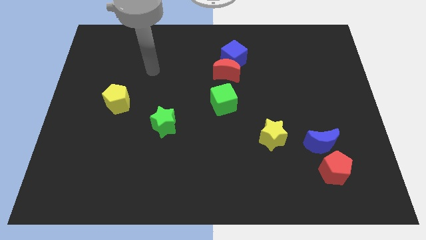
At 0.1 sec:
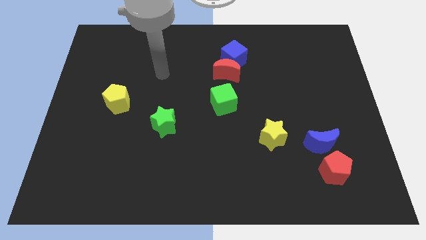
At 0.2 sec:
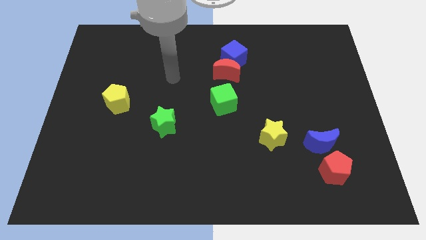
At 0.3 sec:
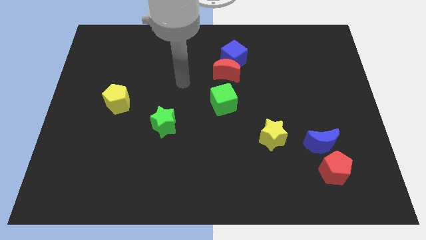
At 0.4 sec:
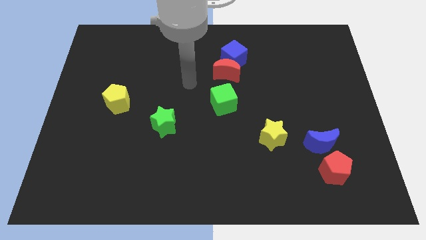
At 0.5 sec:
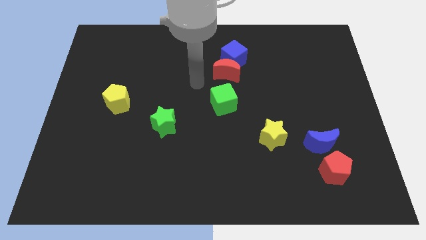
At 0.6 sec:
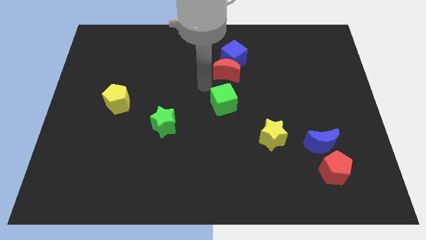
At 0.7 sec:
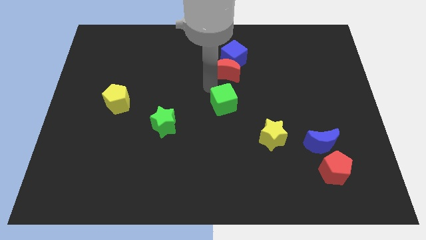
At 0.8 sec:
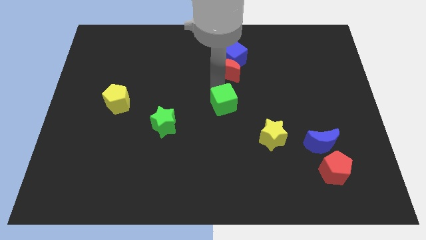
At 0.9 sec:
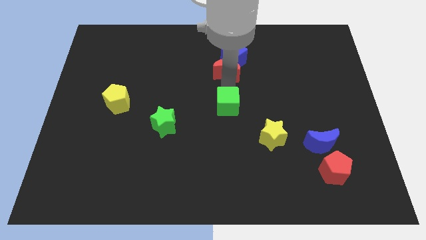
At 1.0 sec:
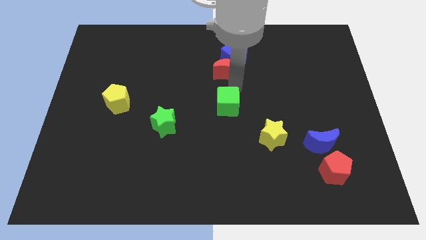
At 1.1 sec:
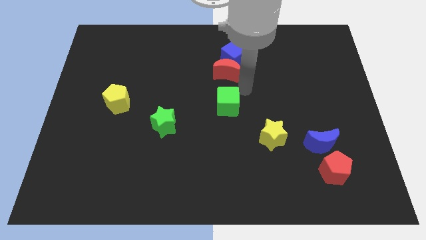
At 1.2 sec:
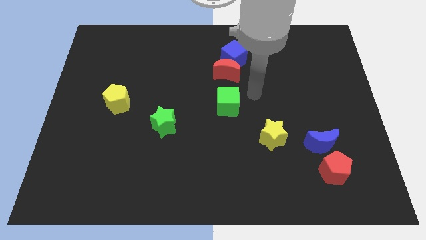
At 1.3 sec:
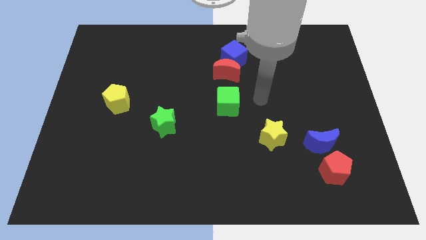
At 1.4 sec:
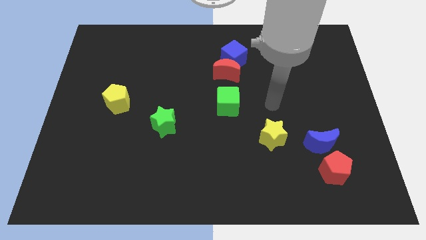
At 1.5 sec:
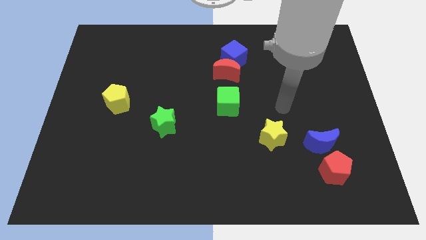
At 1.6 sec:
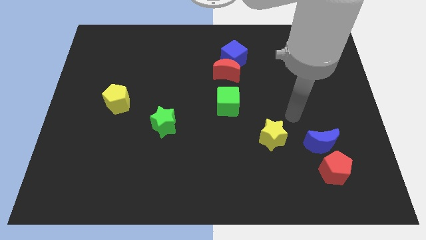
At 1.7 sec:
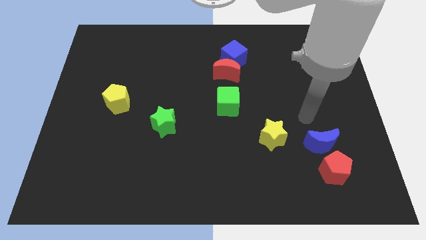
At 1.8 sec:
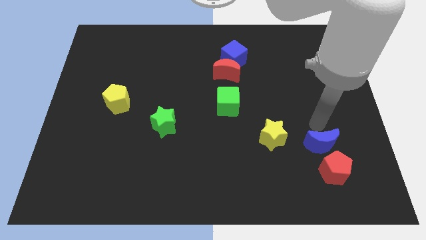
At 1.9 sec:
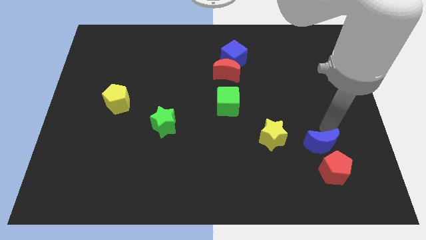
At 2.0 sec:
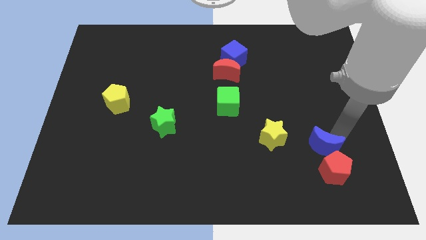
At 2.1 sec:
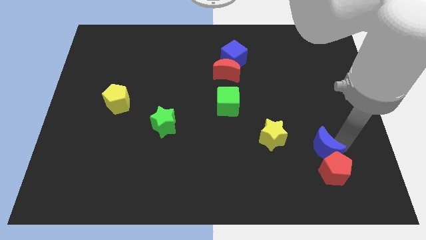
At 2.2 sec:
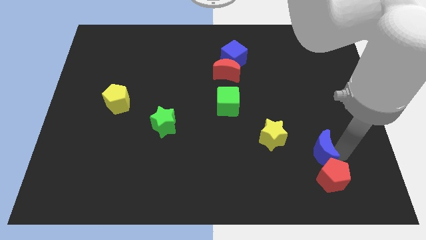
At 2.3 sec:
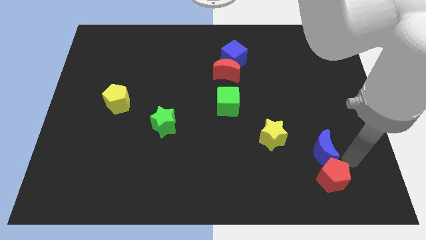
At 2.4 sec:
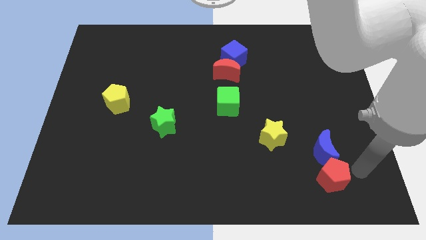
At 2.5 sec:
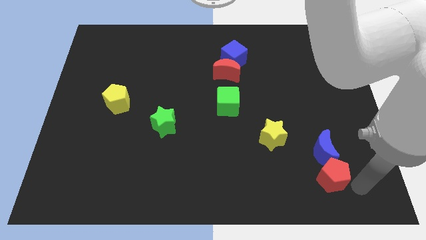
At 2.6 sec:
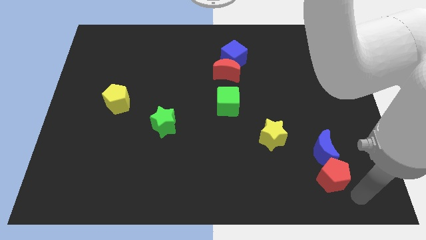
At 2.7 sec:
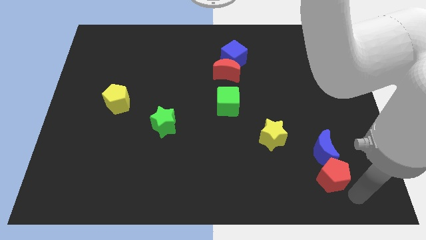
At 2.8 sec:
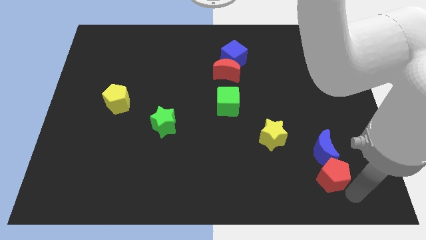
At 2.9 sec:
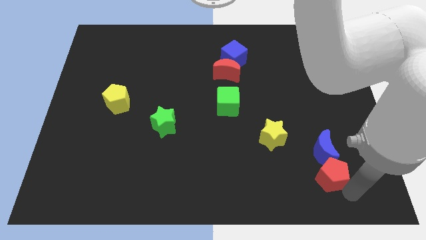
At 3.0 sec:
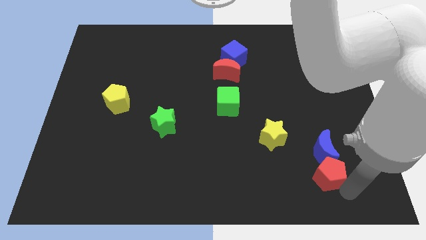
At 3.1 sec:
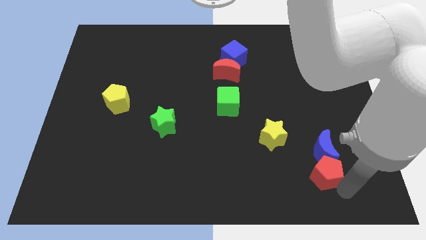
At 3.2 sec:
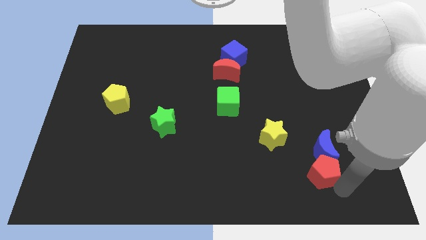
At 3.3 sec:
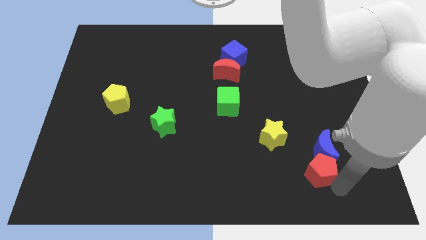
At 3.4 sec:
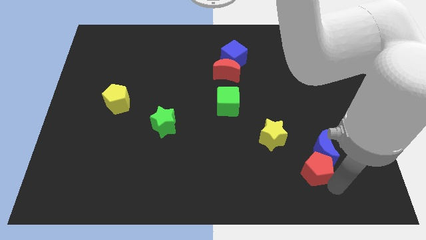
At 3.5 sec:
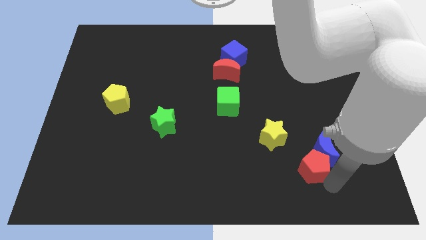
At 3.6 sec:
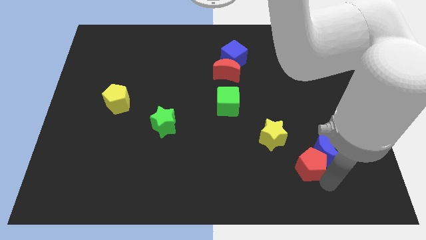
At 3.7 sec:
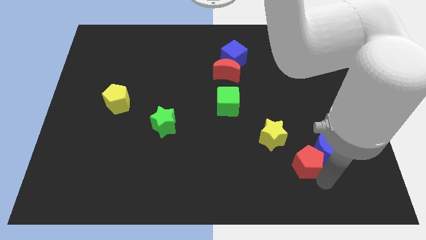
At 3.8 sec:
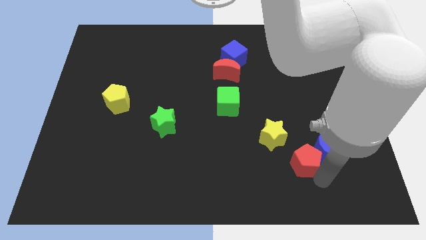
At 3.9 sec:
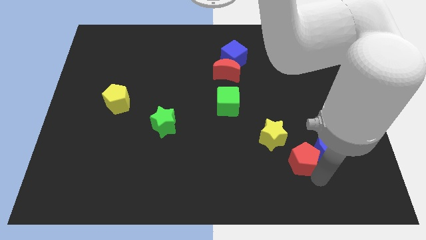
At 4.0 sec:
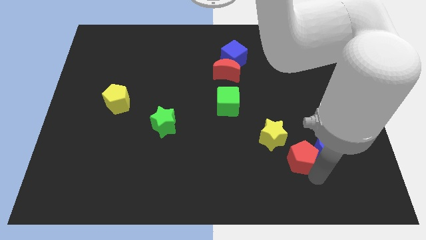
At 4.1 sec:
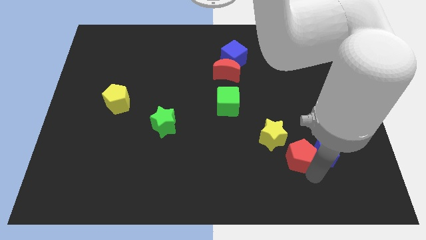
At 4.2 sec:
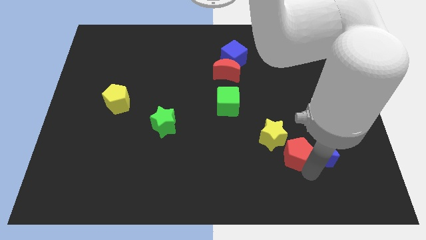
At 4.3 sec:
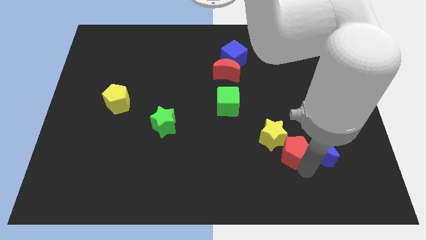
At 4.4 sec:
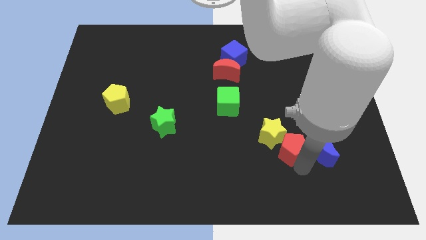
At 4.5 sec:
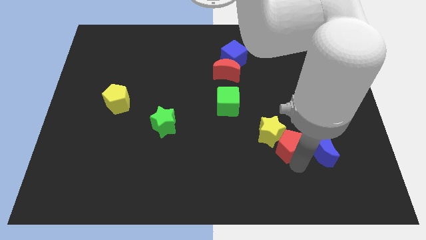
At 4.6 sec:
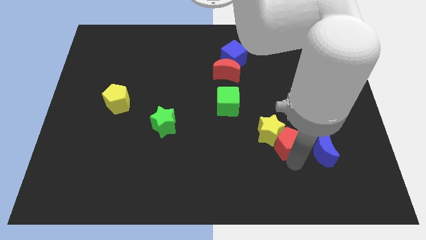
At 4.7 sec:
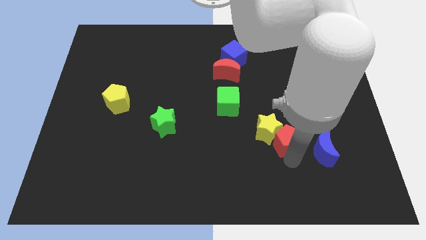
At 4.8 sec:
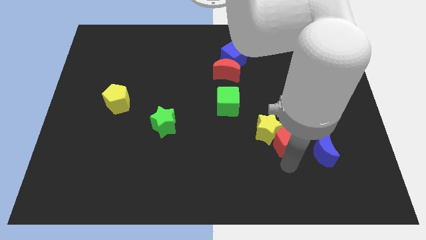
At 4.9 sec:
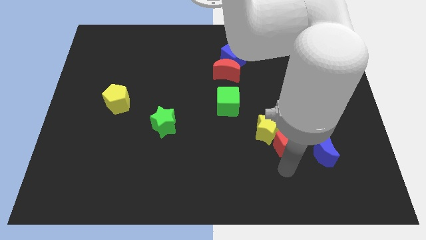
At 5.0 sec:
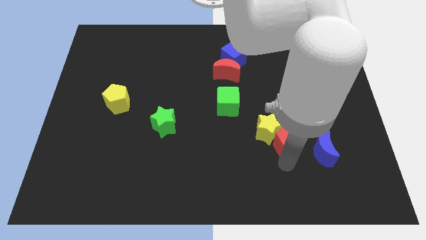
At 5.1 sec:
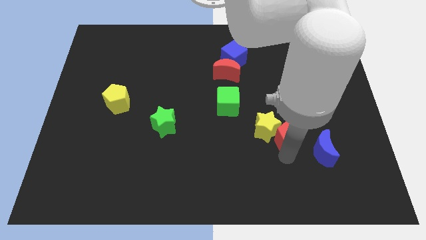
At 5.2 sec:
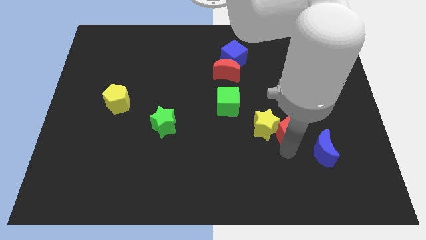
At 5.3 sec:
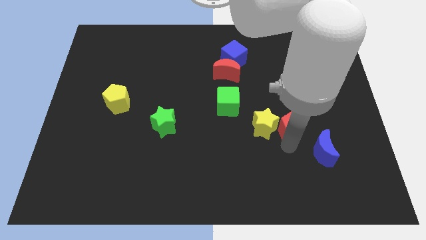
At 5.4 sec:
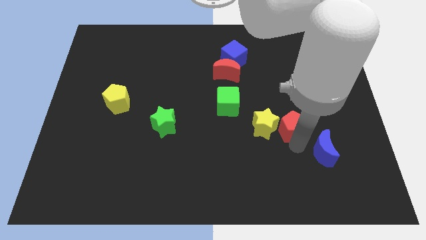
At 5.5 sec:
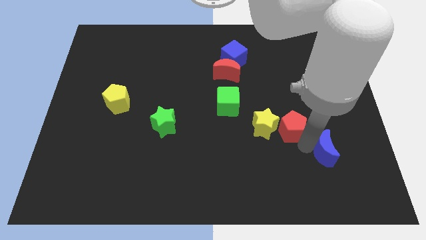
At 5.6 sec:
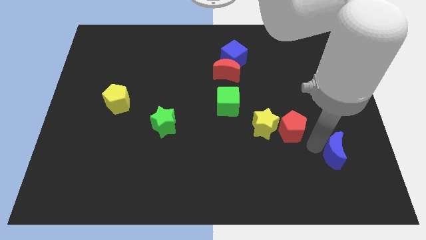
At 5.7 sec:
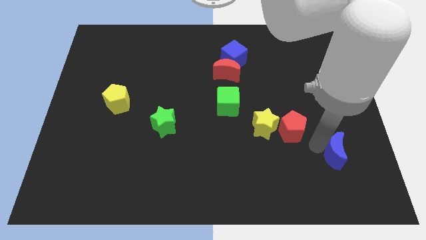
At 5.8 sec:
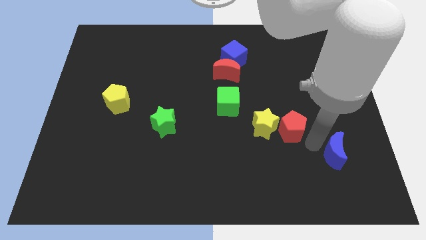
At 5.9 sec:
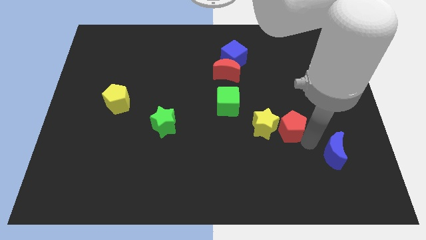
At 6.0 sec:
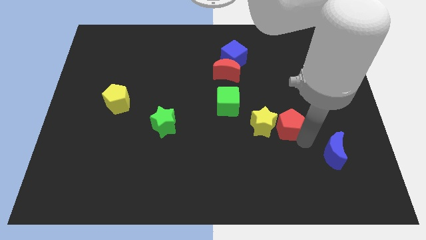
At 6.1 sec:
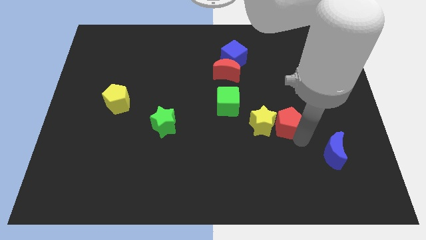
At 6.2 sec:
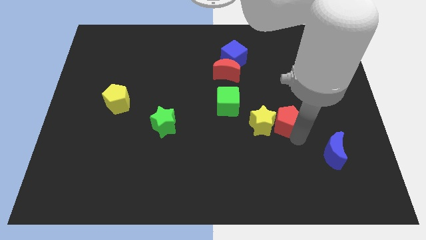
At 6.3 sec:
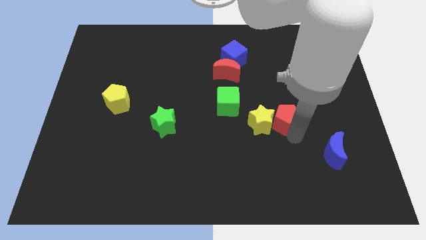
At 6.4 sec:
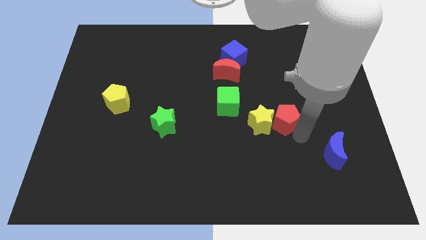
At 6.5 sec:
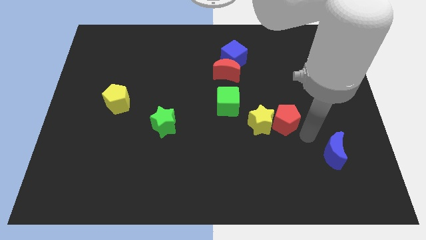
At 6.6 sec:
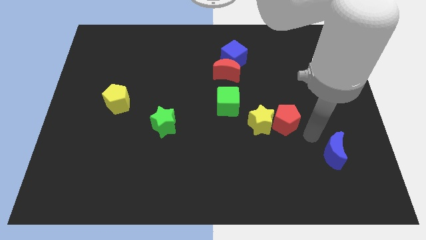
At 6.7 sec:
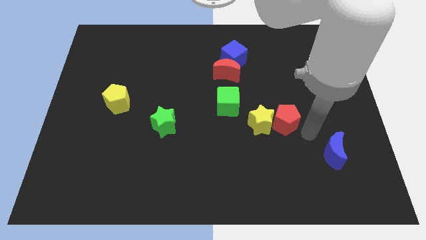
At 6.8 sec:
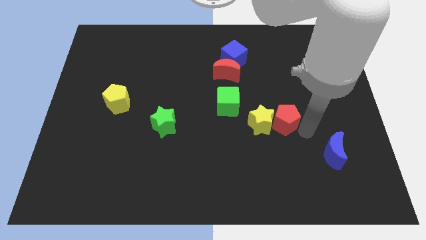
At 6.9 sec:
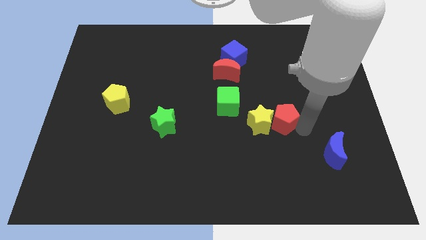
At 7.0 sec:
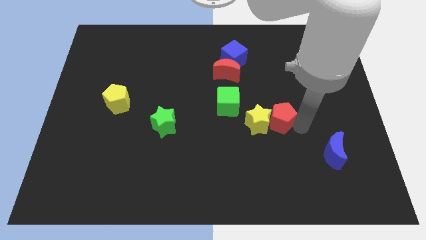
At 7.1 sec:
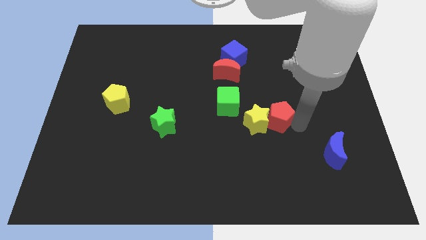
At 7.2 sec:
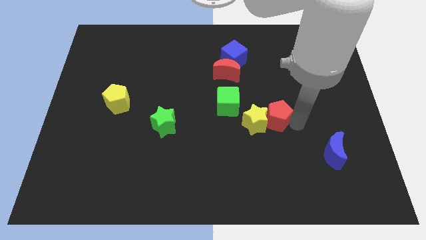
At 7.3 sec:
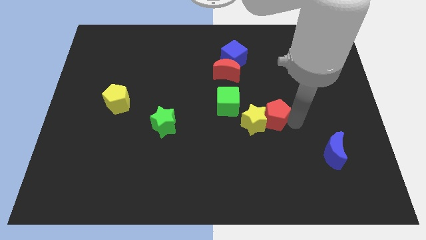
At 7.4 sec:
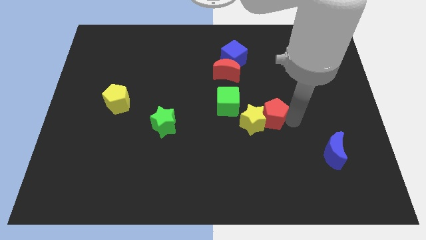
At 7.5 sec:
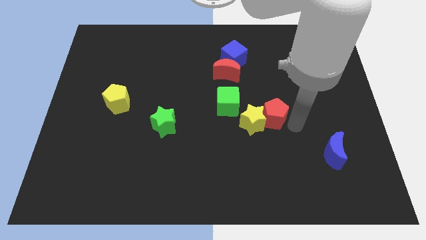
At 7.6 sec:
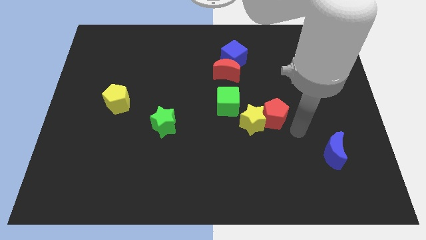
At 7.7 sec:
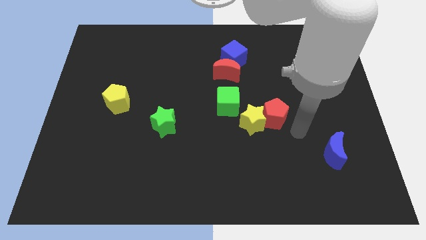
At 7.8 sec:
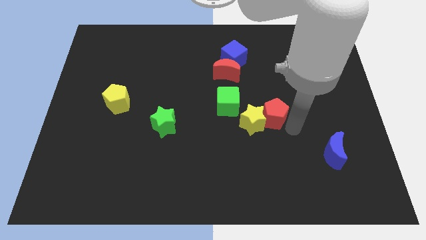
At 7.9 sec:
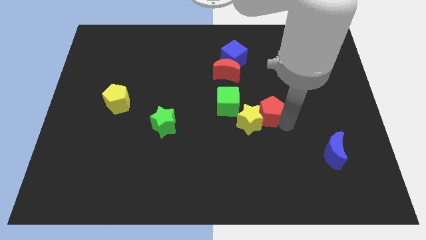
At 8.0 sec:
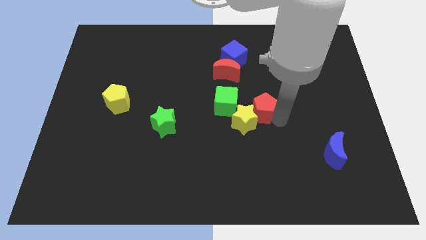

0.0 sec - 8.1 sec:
push the red pentagon up and left diagonally

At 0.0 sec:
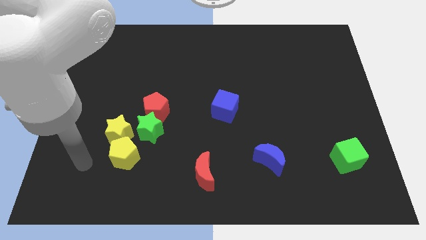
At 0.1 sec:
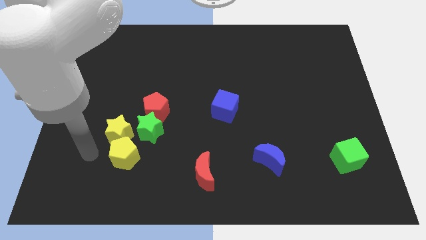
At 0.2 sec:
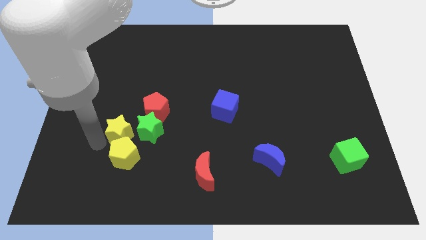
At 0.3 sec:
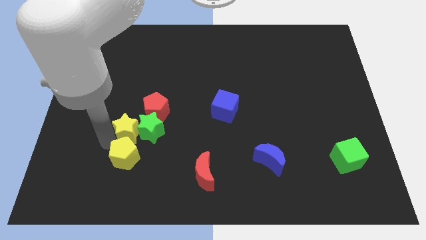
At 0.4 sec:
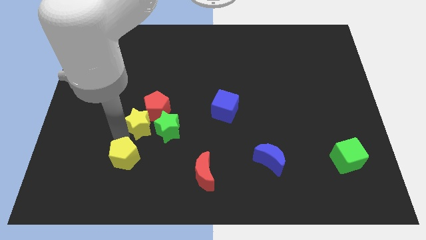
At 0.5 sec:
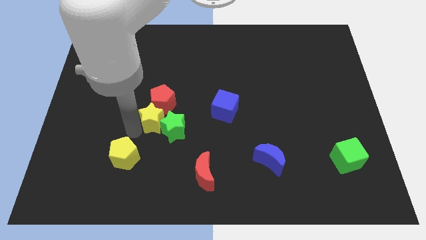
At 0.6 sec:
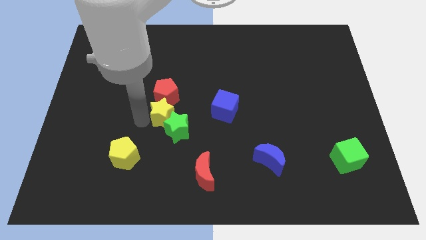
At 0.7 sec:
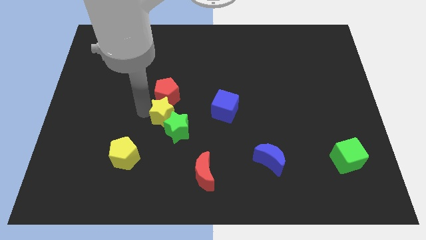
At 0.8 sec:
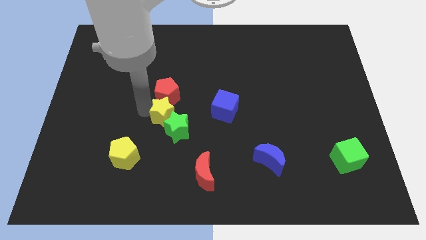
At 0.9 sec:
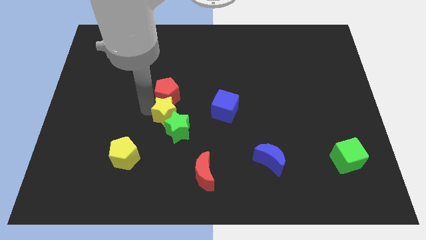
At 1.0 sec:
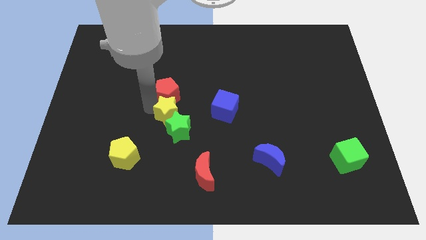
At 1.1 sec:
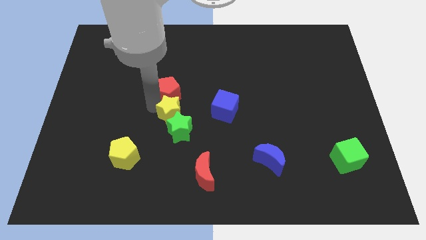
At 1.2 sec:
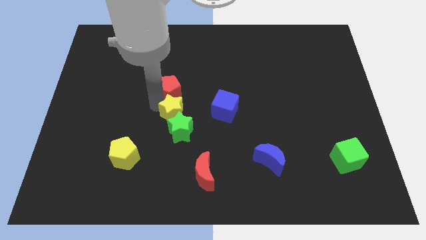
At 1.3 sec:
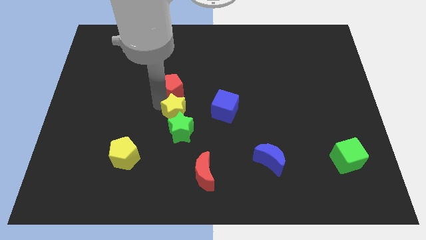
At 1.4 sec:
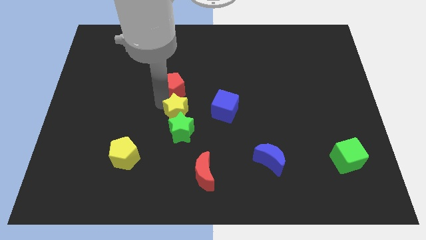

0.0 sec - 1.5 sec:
move the red pentagon slightly diagonally upwards and to the right
